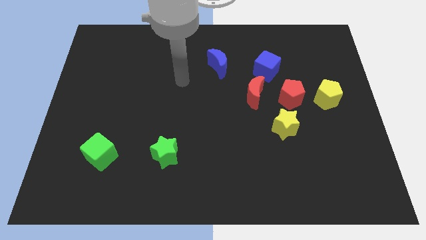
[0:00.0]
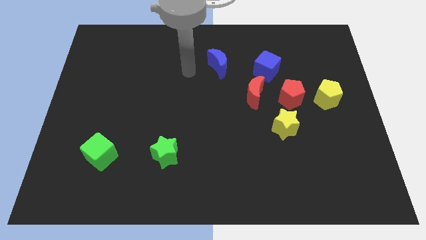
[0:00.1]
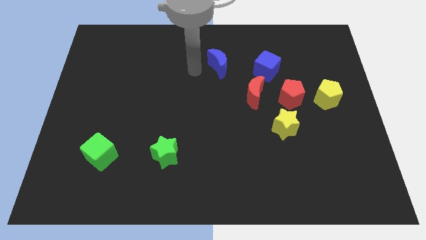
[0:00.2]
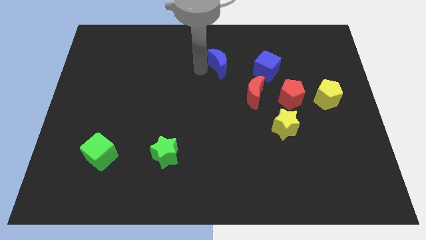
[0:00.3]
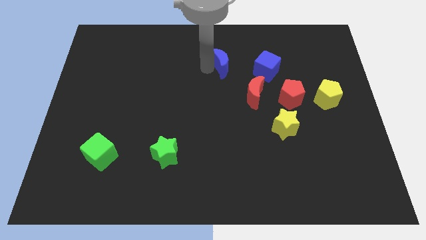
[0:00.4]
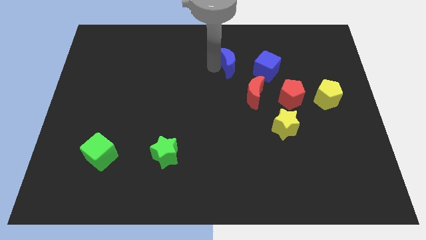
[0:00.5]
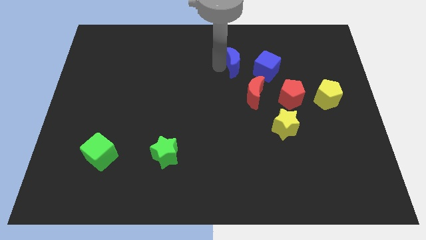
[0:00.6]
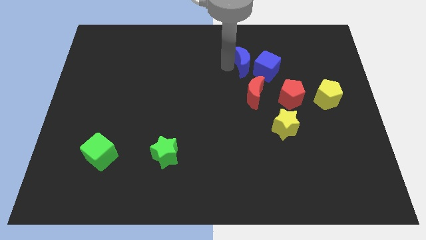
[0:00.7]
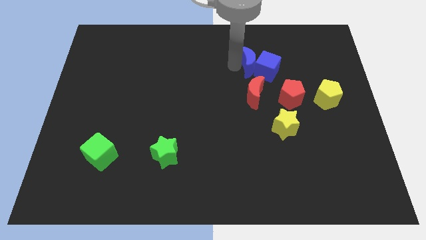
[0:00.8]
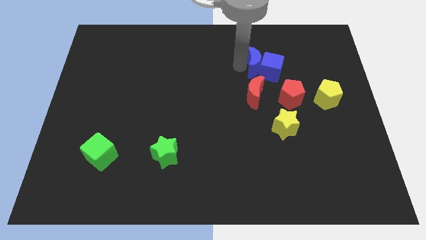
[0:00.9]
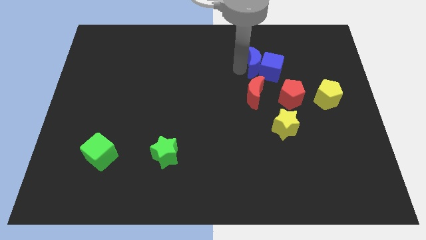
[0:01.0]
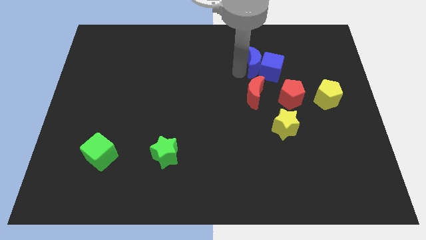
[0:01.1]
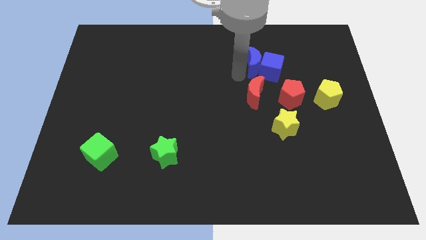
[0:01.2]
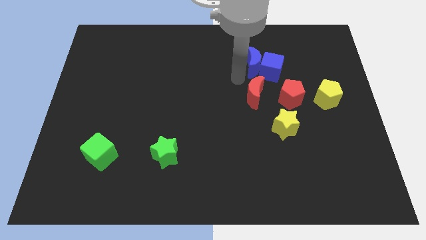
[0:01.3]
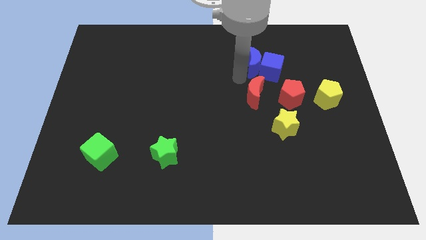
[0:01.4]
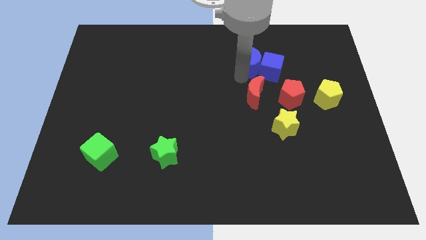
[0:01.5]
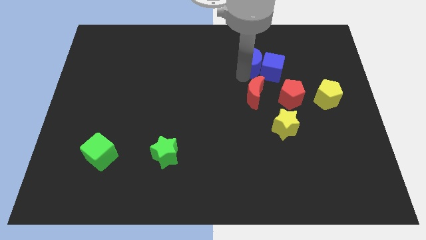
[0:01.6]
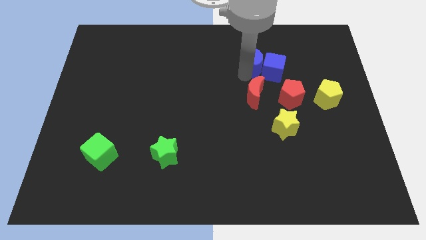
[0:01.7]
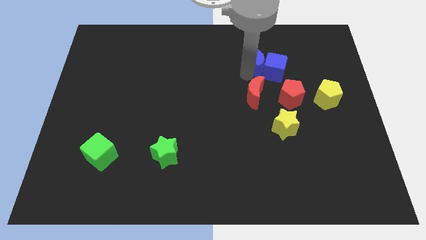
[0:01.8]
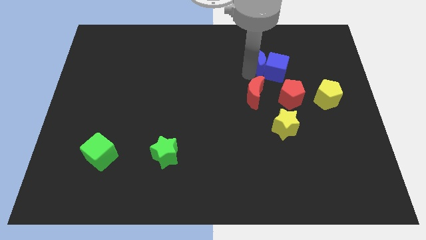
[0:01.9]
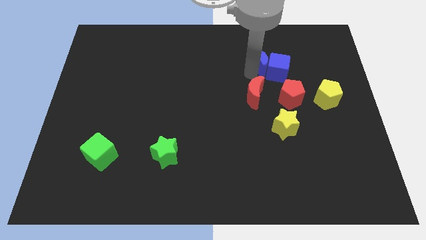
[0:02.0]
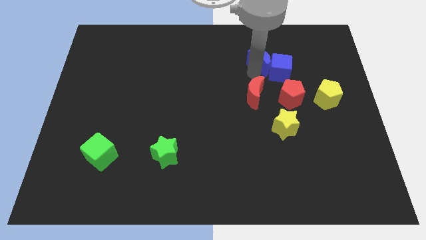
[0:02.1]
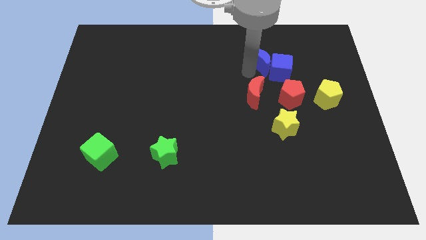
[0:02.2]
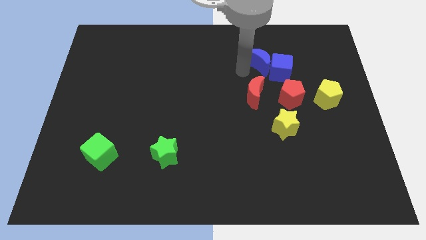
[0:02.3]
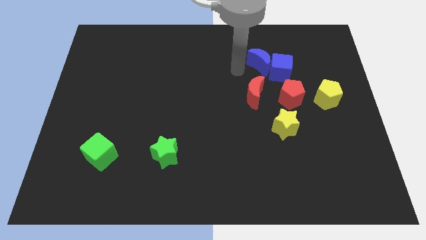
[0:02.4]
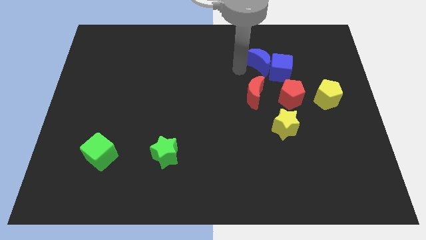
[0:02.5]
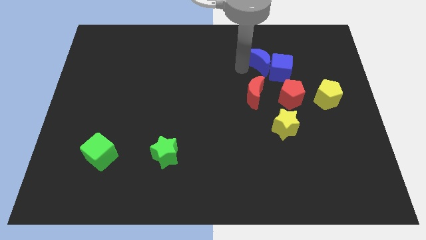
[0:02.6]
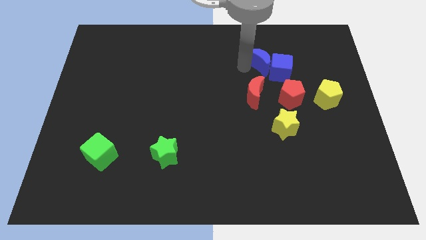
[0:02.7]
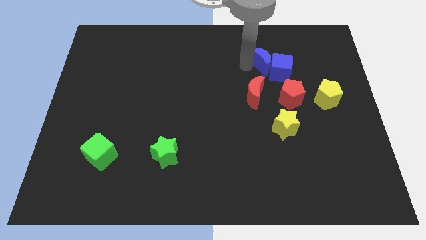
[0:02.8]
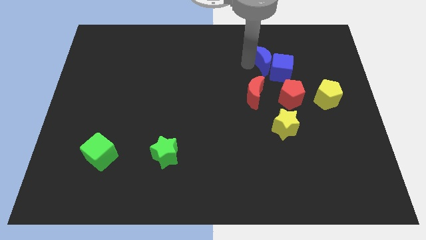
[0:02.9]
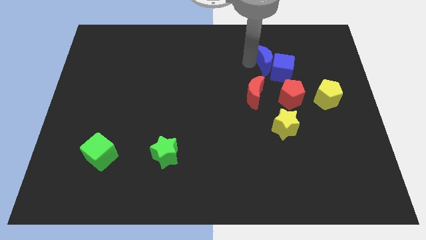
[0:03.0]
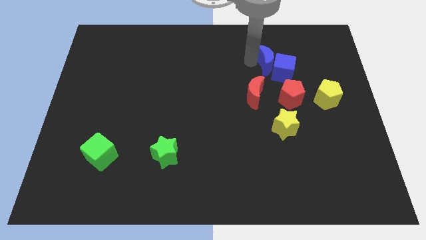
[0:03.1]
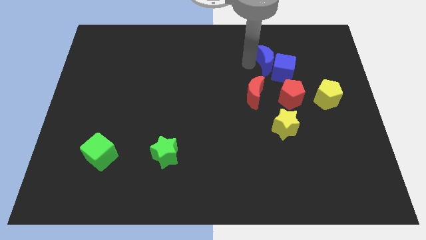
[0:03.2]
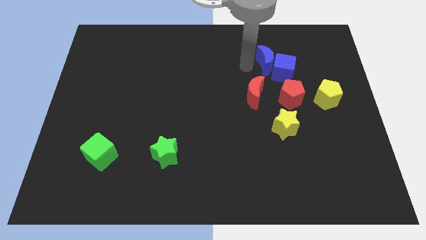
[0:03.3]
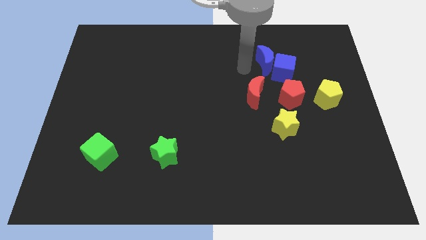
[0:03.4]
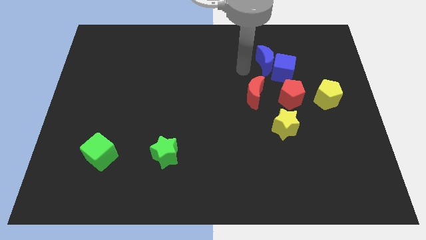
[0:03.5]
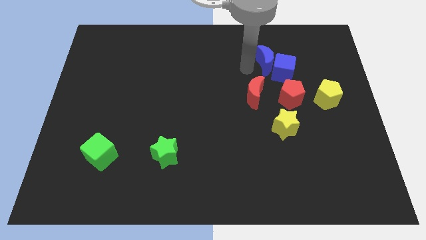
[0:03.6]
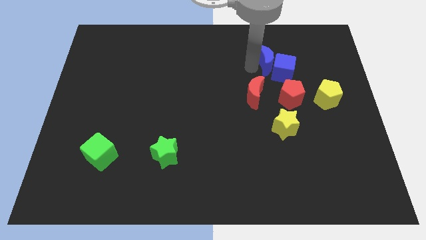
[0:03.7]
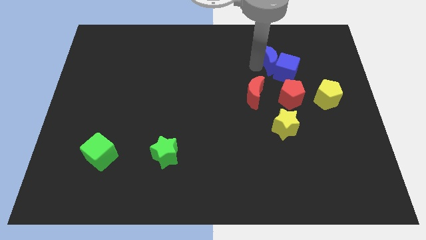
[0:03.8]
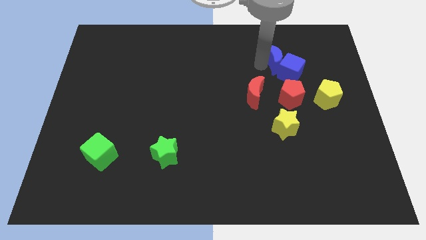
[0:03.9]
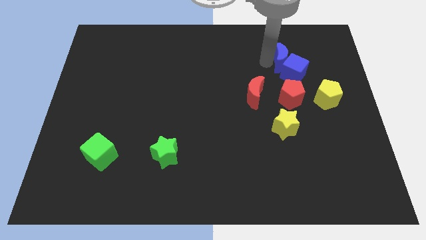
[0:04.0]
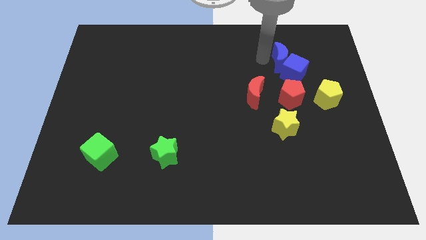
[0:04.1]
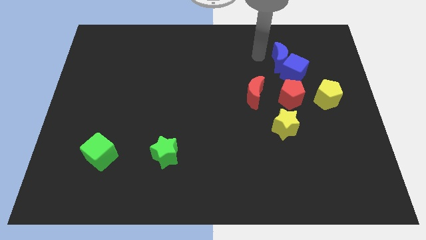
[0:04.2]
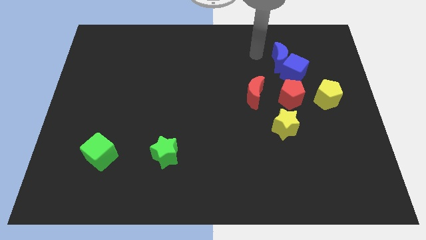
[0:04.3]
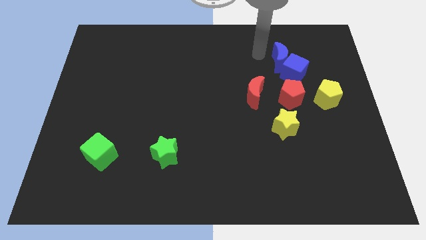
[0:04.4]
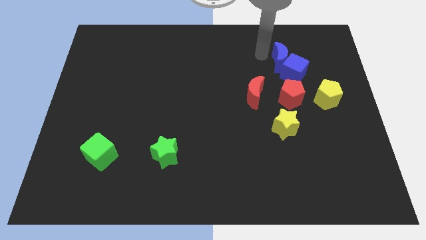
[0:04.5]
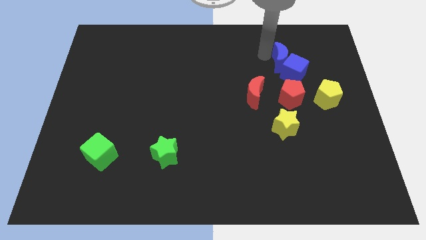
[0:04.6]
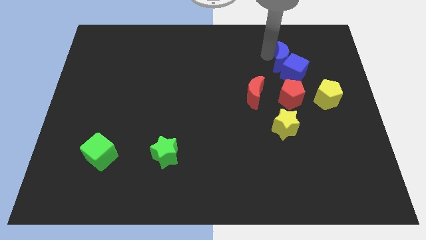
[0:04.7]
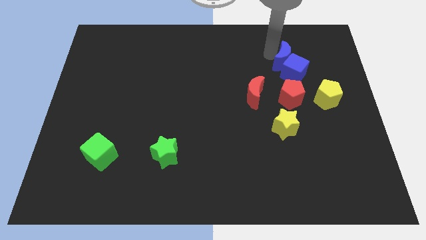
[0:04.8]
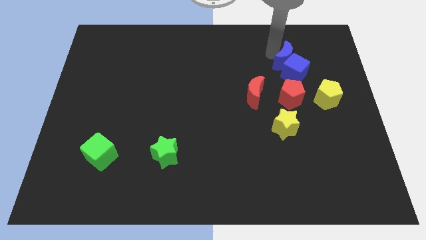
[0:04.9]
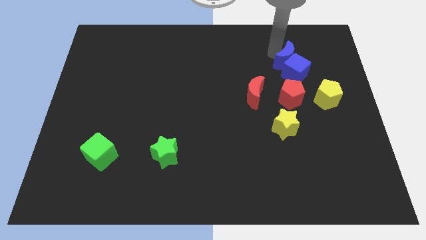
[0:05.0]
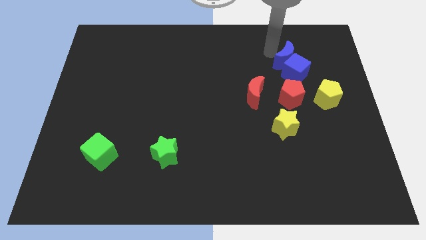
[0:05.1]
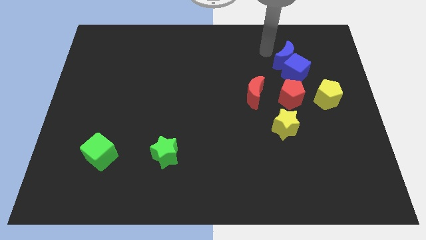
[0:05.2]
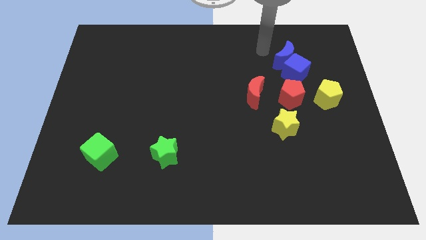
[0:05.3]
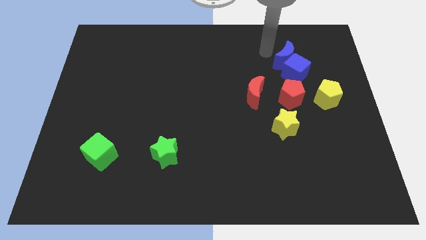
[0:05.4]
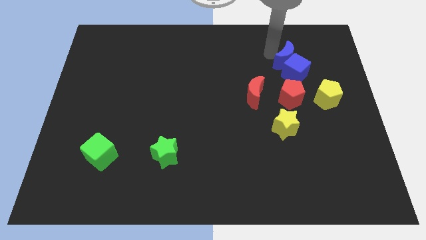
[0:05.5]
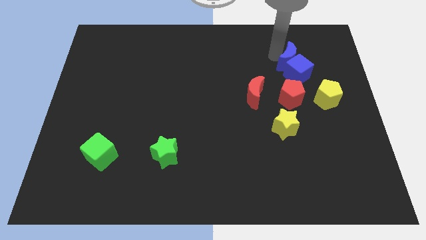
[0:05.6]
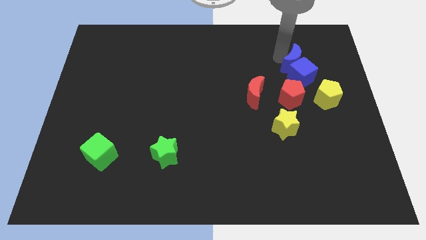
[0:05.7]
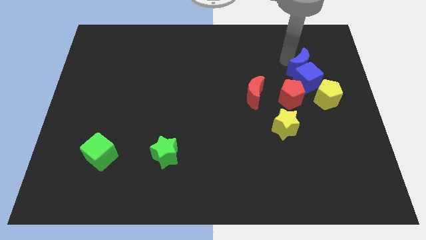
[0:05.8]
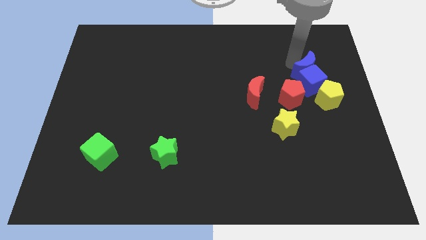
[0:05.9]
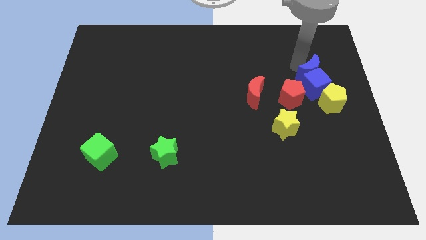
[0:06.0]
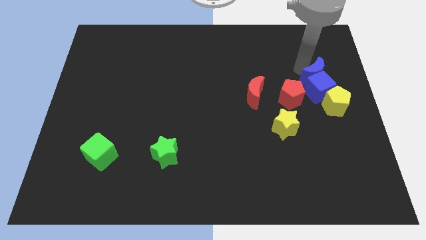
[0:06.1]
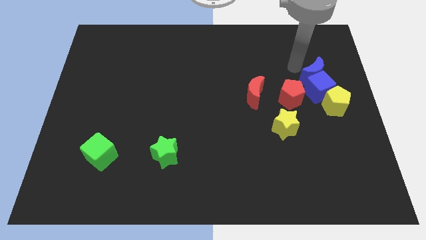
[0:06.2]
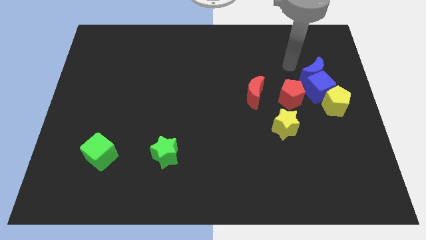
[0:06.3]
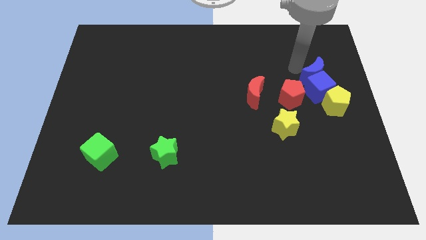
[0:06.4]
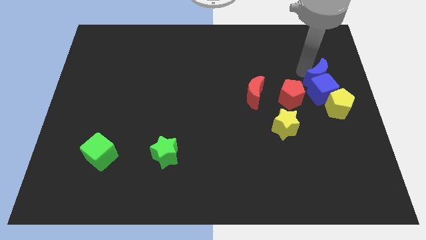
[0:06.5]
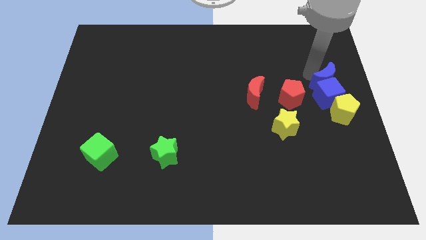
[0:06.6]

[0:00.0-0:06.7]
push the blue moon to the center right
